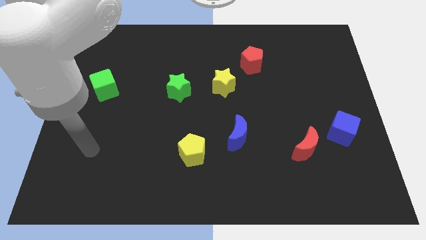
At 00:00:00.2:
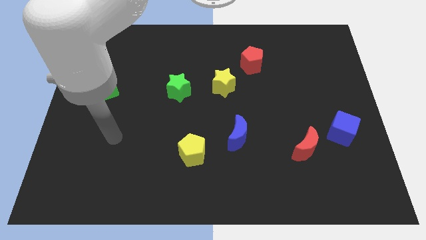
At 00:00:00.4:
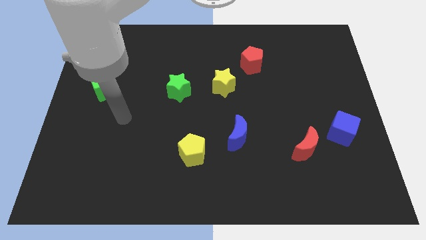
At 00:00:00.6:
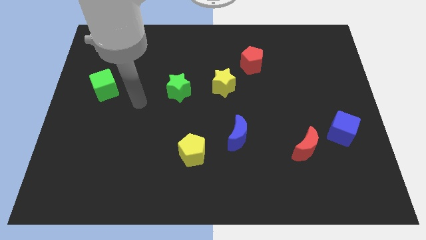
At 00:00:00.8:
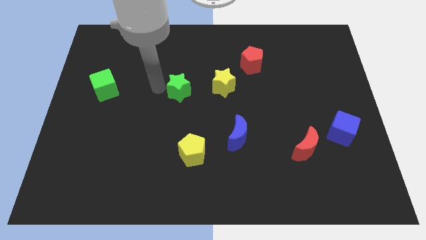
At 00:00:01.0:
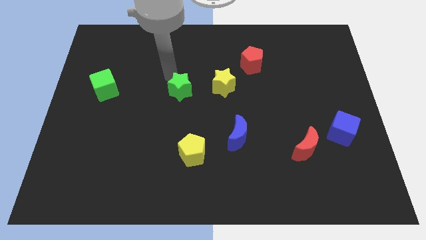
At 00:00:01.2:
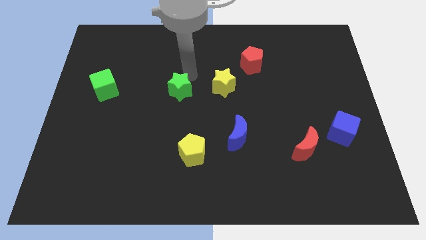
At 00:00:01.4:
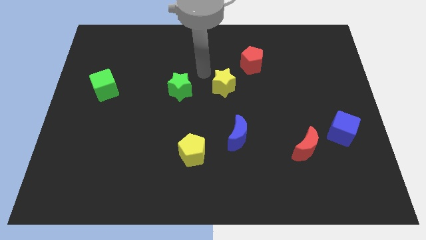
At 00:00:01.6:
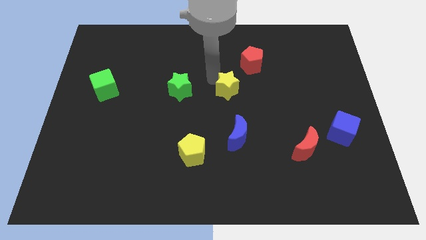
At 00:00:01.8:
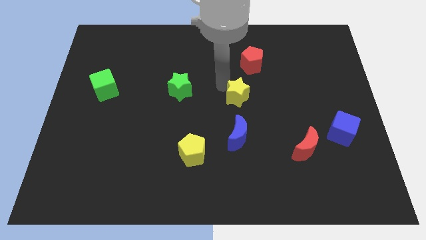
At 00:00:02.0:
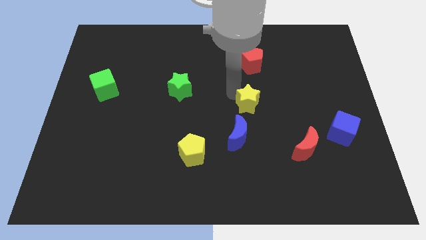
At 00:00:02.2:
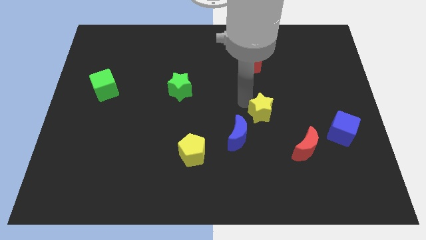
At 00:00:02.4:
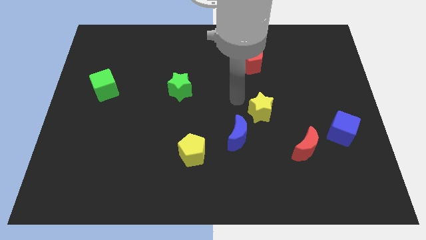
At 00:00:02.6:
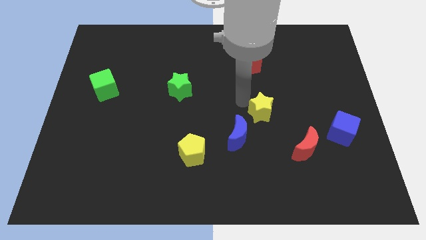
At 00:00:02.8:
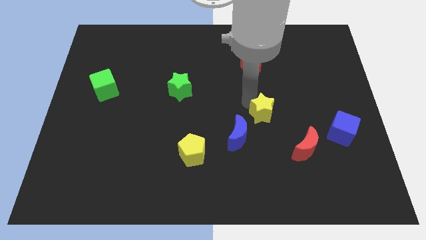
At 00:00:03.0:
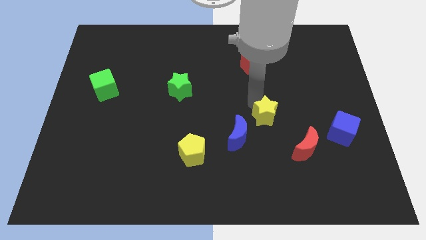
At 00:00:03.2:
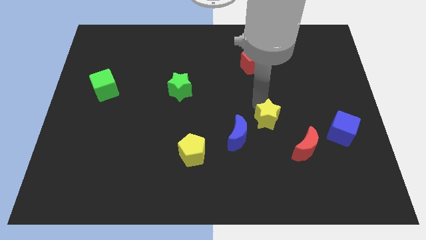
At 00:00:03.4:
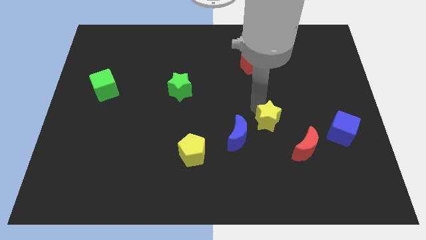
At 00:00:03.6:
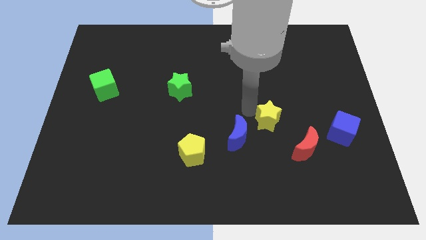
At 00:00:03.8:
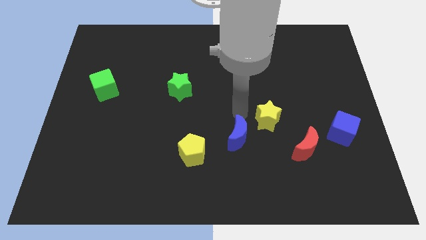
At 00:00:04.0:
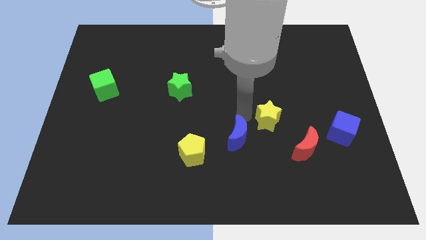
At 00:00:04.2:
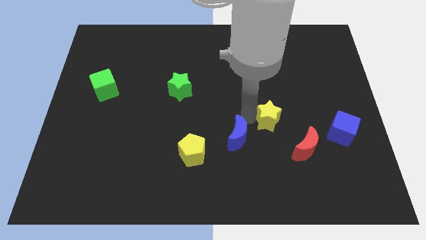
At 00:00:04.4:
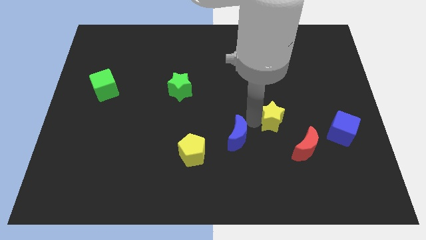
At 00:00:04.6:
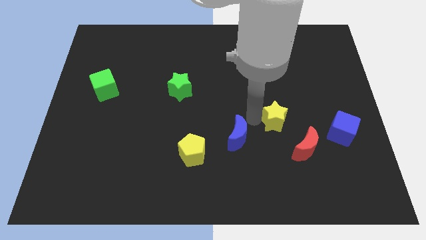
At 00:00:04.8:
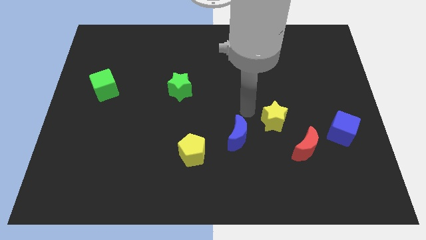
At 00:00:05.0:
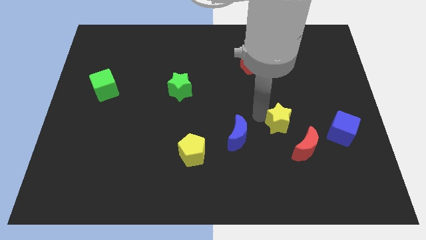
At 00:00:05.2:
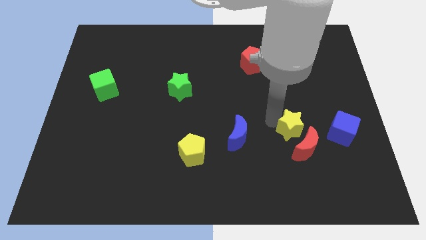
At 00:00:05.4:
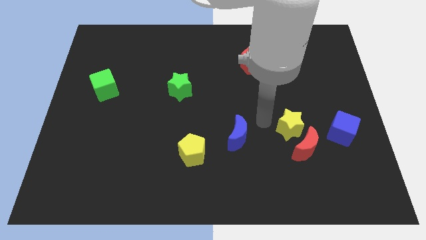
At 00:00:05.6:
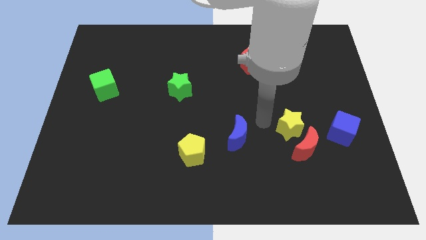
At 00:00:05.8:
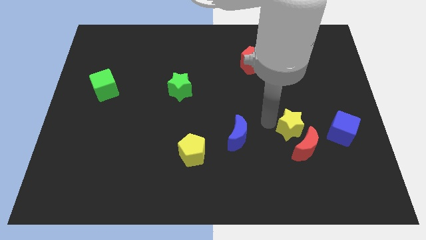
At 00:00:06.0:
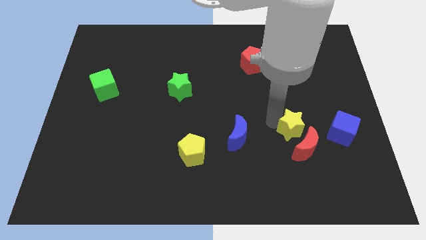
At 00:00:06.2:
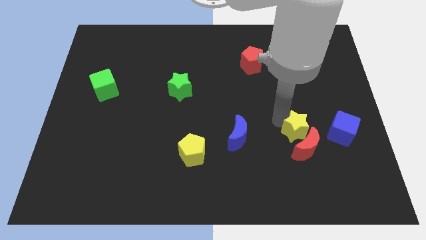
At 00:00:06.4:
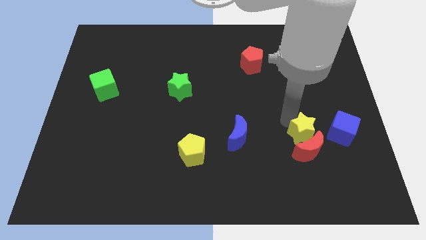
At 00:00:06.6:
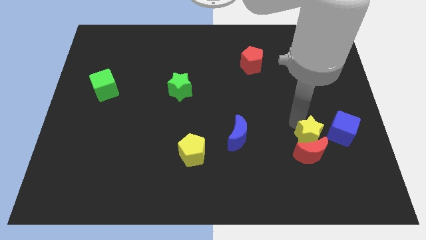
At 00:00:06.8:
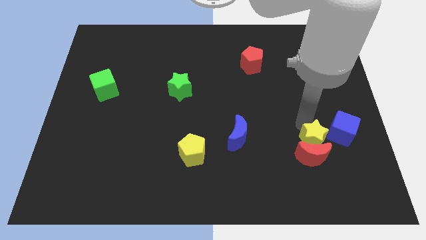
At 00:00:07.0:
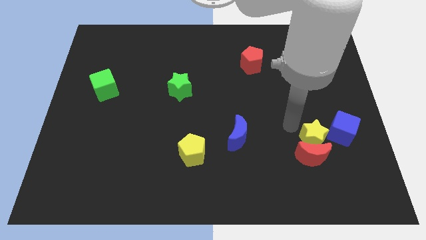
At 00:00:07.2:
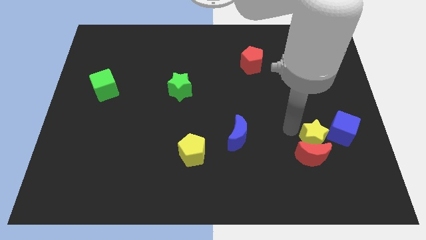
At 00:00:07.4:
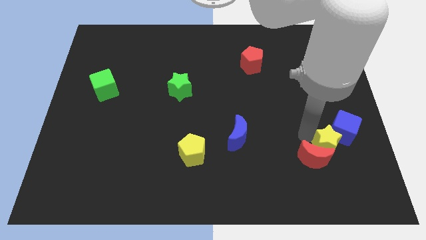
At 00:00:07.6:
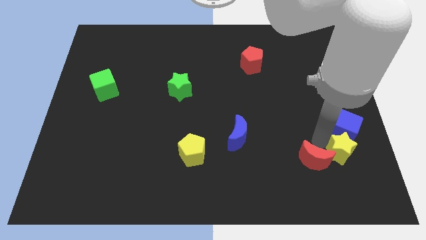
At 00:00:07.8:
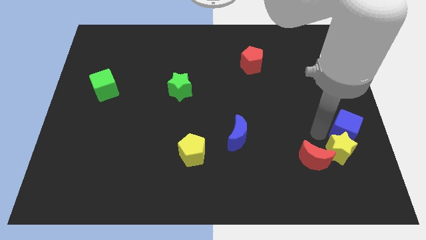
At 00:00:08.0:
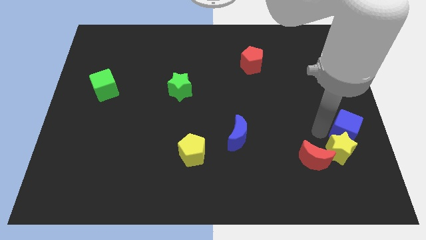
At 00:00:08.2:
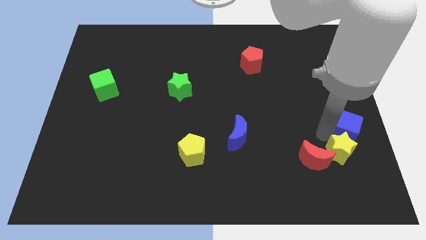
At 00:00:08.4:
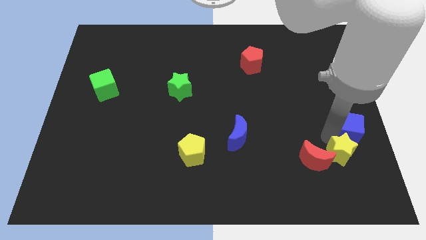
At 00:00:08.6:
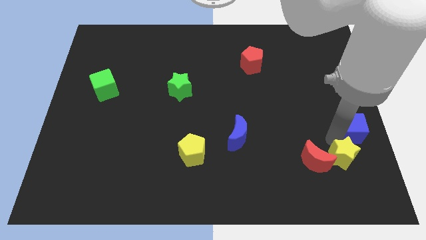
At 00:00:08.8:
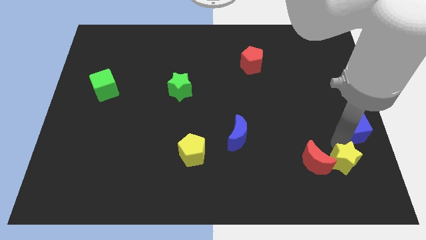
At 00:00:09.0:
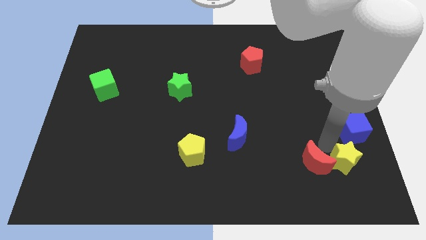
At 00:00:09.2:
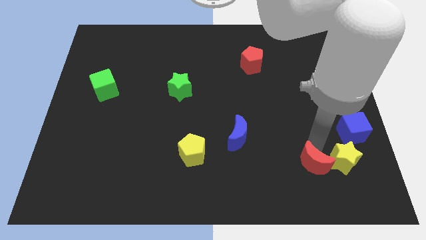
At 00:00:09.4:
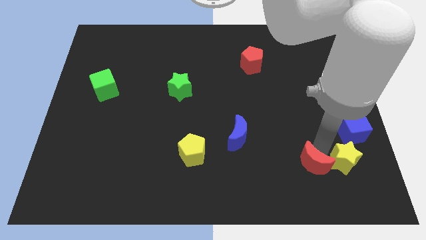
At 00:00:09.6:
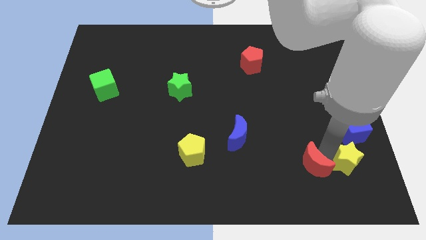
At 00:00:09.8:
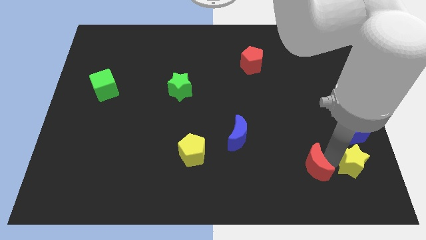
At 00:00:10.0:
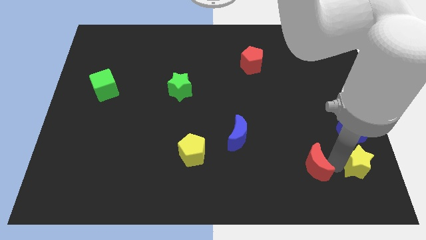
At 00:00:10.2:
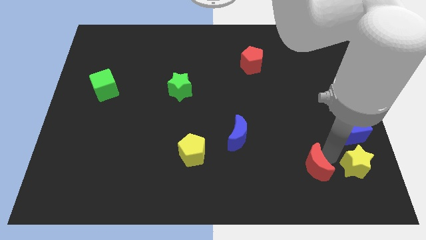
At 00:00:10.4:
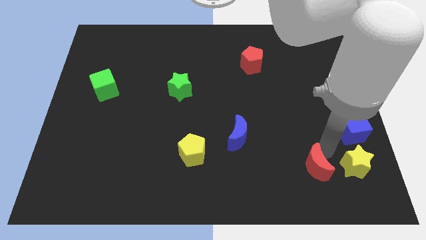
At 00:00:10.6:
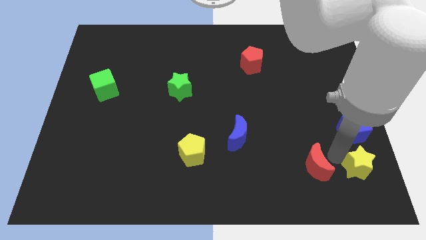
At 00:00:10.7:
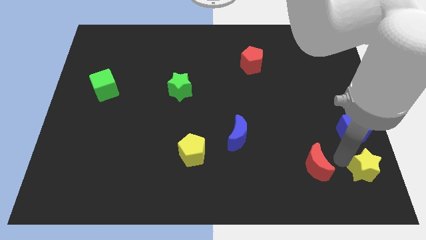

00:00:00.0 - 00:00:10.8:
move the yellow star to the bottom right
